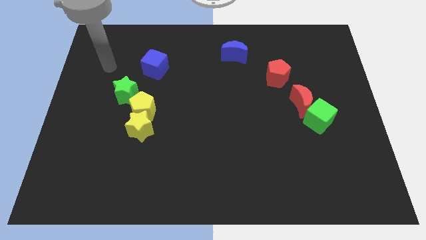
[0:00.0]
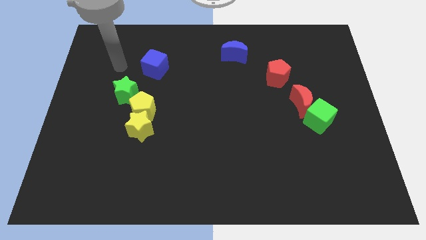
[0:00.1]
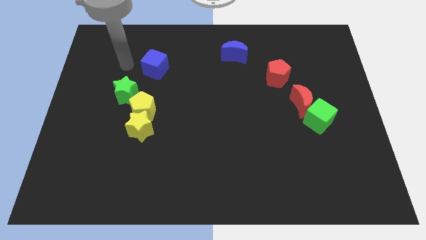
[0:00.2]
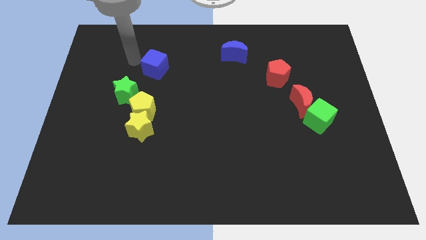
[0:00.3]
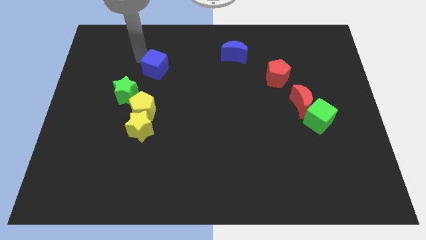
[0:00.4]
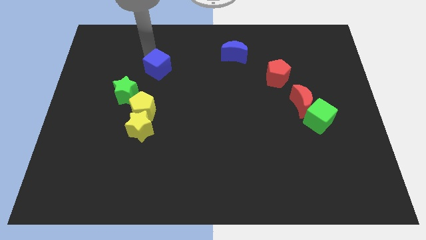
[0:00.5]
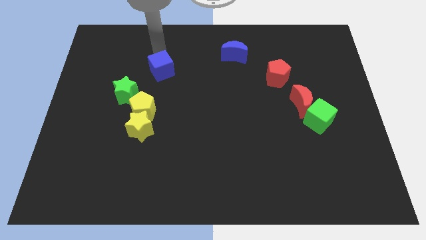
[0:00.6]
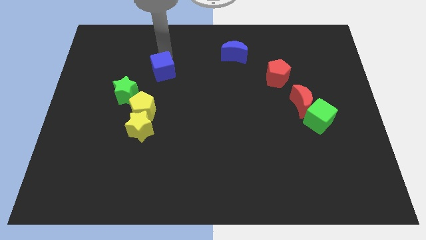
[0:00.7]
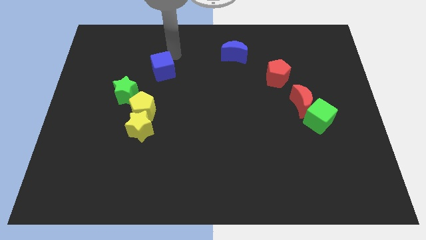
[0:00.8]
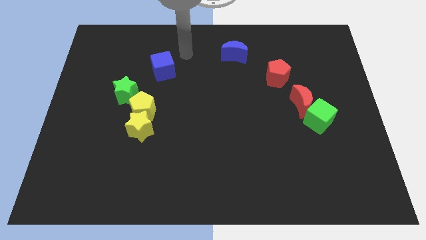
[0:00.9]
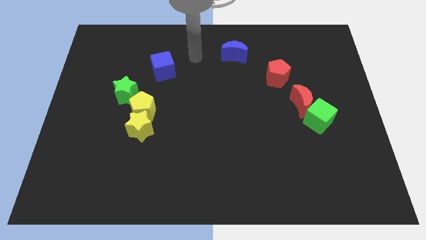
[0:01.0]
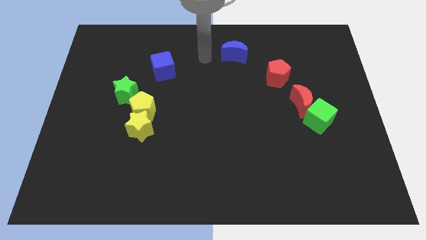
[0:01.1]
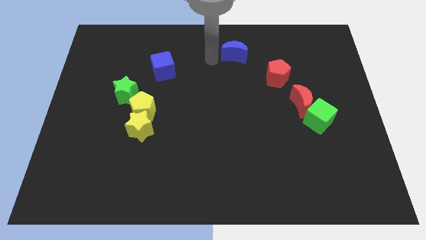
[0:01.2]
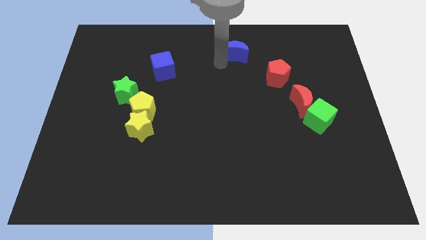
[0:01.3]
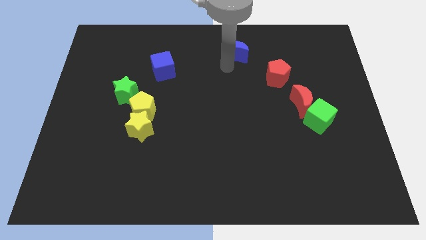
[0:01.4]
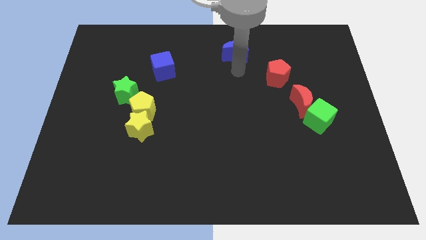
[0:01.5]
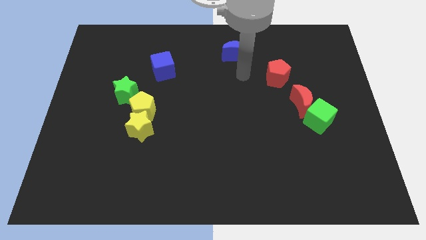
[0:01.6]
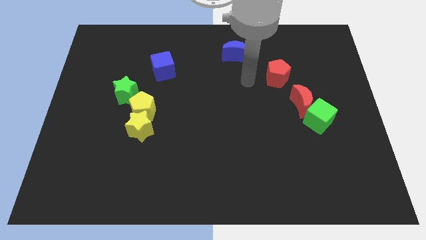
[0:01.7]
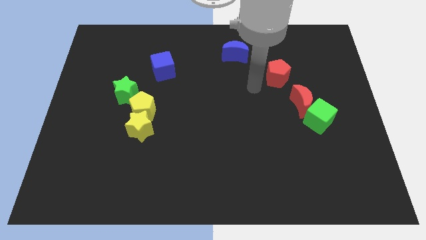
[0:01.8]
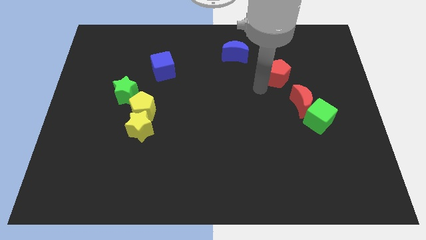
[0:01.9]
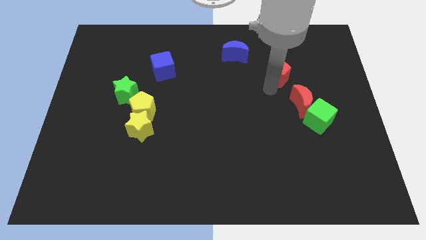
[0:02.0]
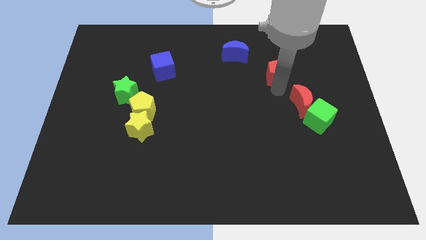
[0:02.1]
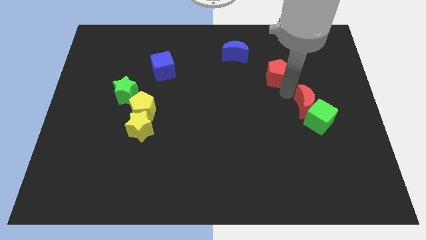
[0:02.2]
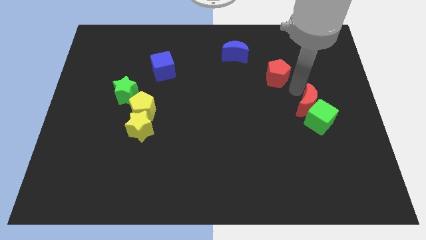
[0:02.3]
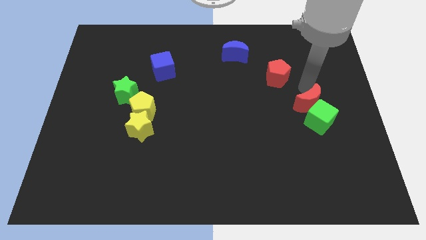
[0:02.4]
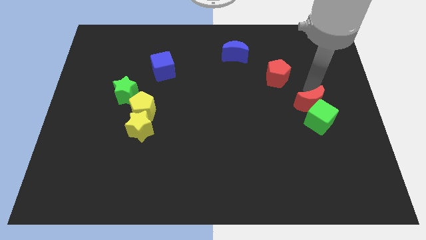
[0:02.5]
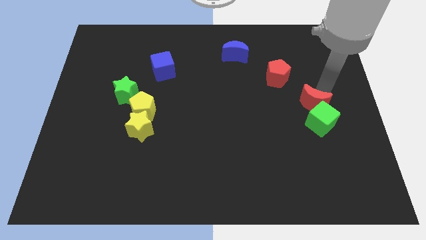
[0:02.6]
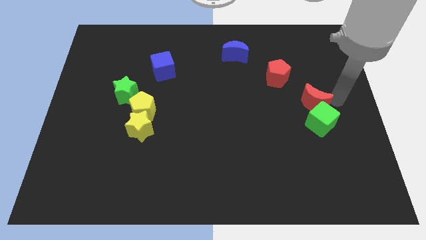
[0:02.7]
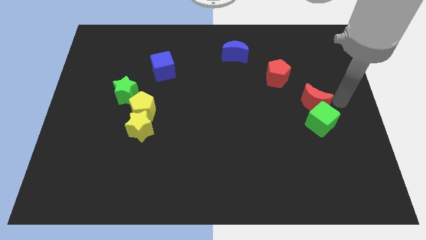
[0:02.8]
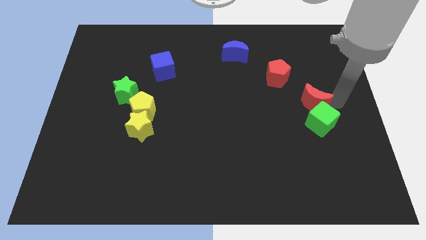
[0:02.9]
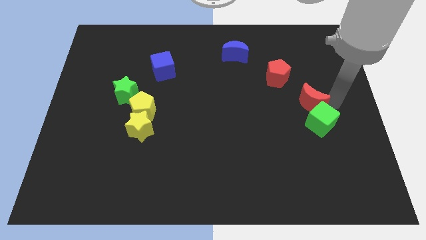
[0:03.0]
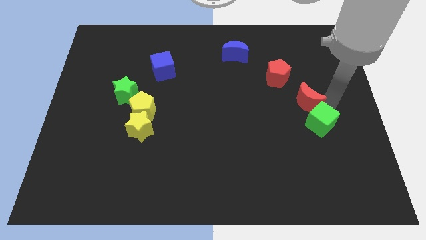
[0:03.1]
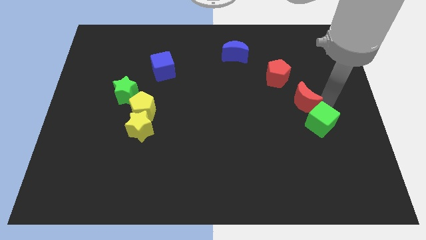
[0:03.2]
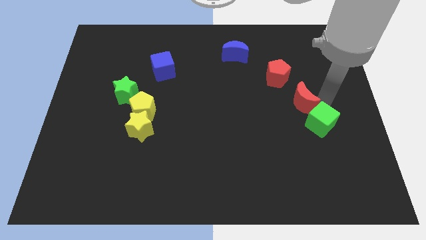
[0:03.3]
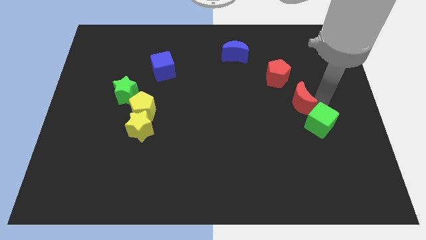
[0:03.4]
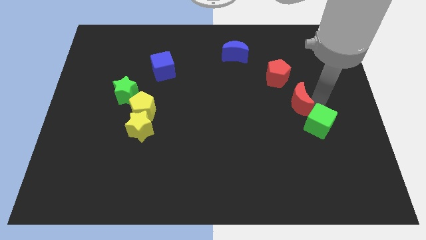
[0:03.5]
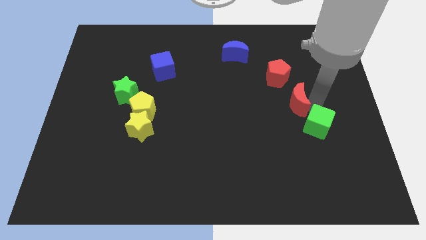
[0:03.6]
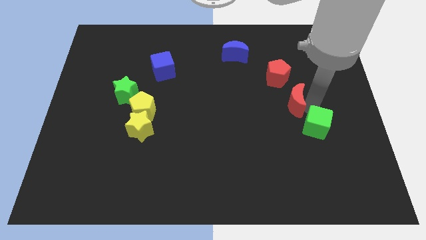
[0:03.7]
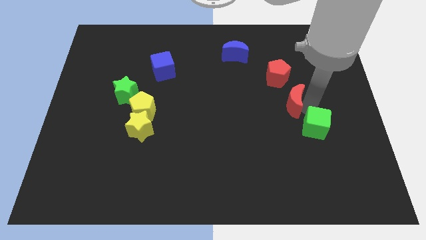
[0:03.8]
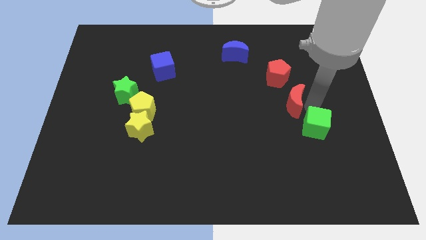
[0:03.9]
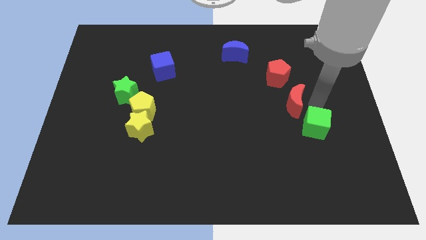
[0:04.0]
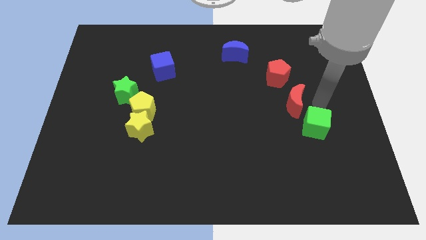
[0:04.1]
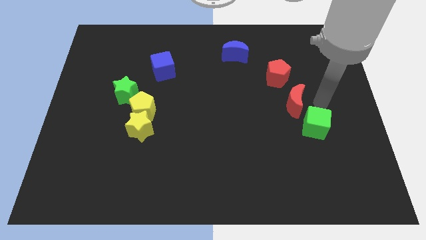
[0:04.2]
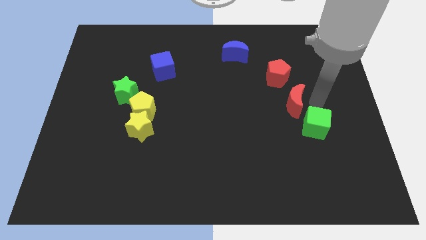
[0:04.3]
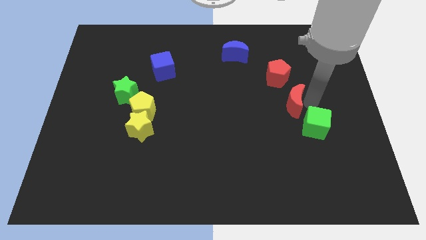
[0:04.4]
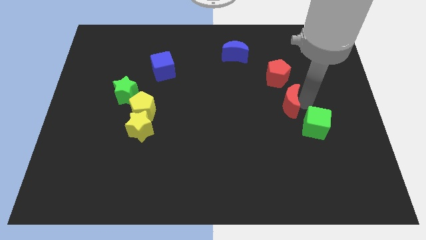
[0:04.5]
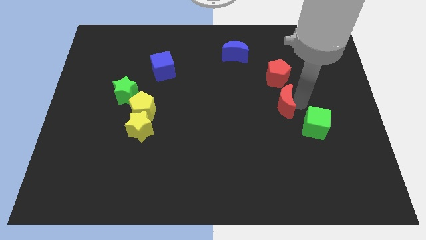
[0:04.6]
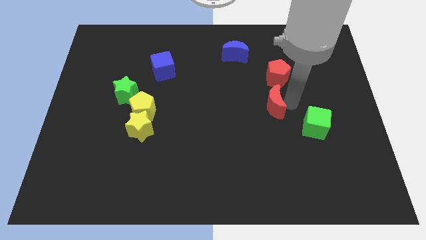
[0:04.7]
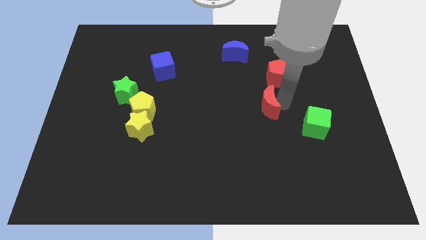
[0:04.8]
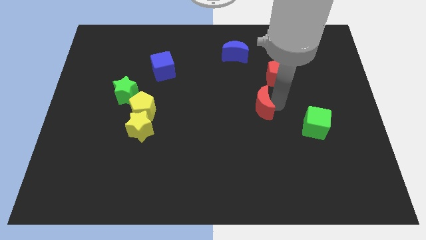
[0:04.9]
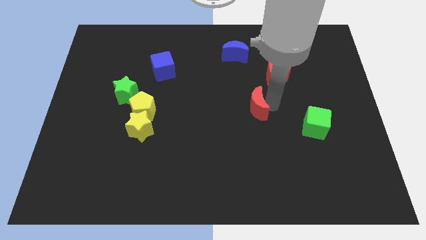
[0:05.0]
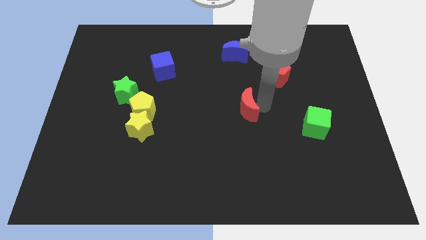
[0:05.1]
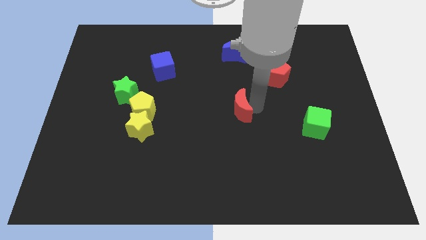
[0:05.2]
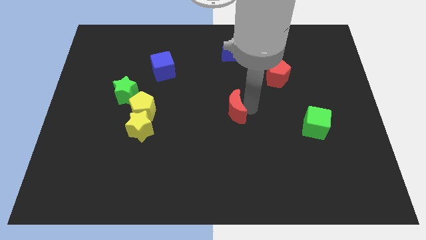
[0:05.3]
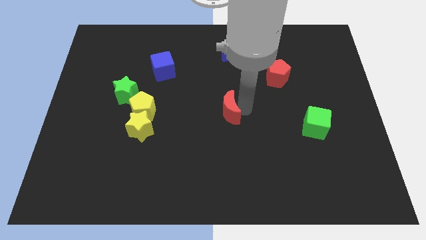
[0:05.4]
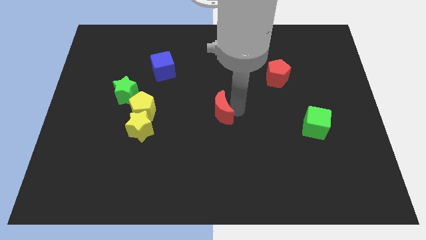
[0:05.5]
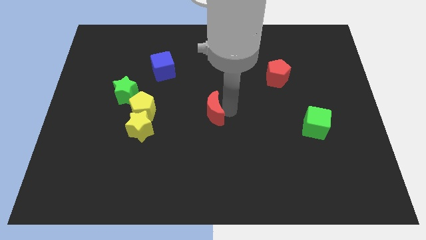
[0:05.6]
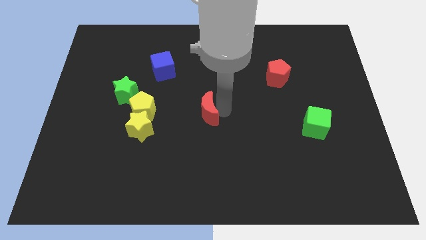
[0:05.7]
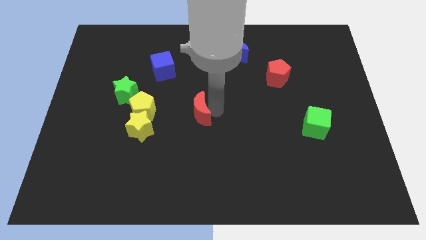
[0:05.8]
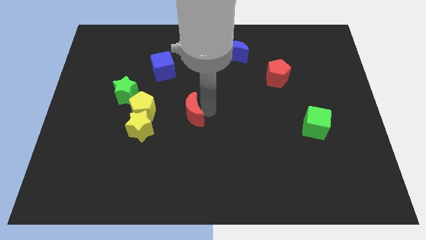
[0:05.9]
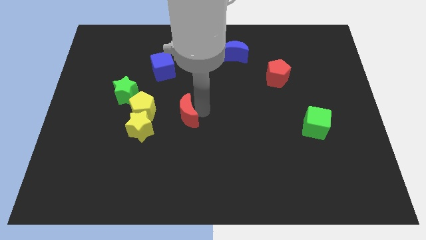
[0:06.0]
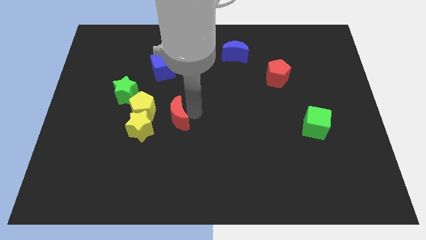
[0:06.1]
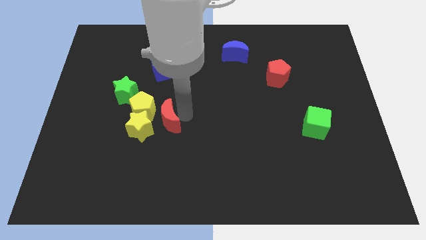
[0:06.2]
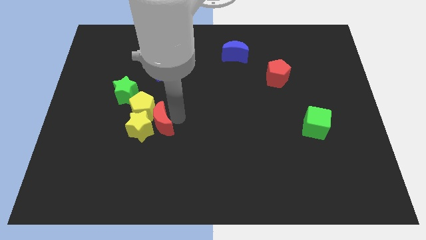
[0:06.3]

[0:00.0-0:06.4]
push the red moon to the yellow star

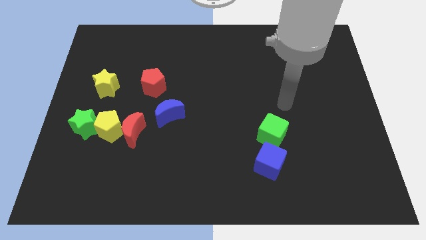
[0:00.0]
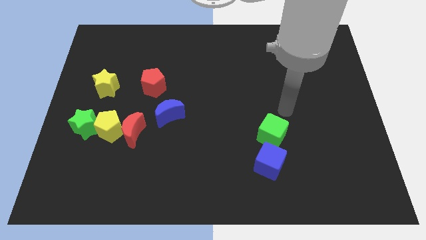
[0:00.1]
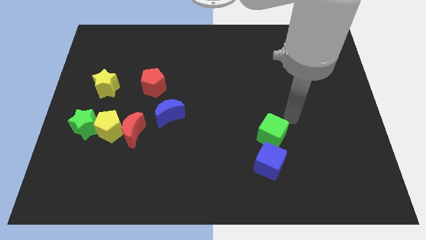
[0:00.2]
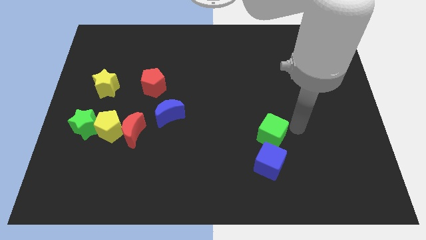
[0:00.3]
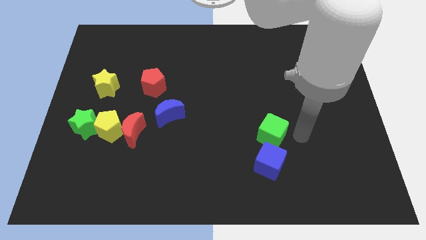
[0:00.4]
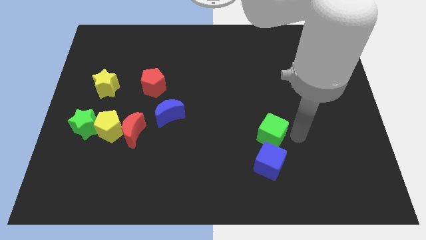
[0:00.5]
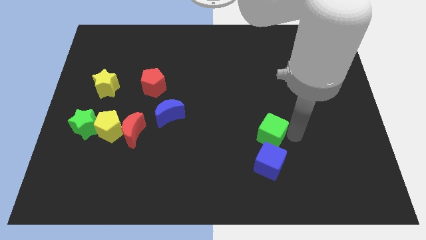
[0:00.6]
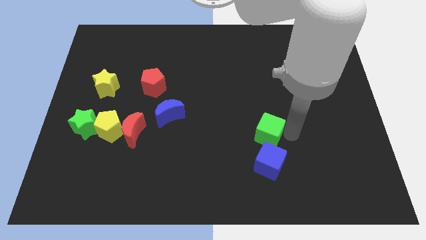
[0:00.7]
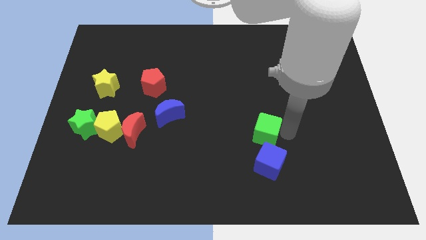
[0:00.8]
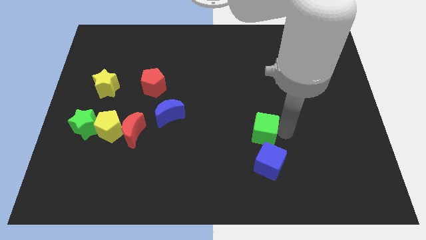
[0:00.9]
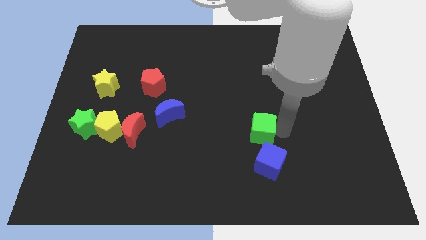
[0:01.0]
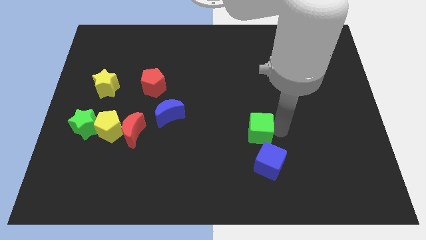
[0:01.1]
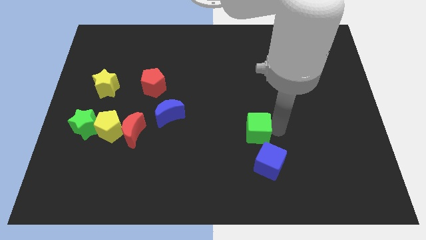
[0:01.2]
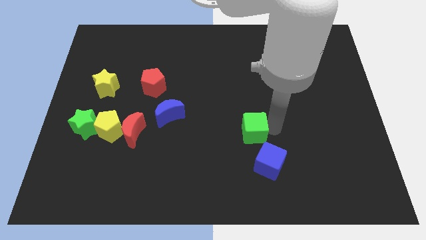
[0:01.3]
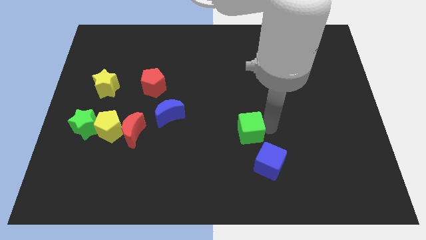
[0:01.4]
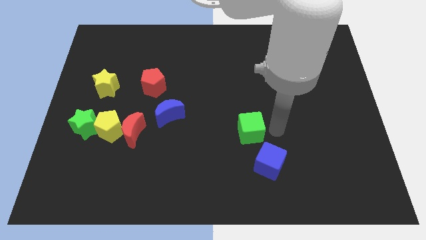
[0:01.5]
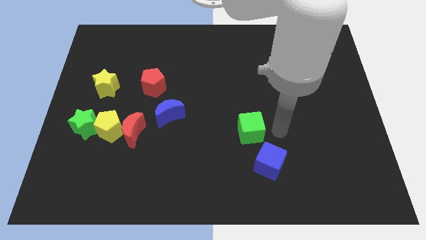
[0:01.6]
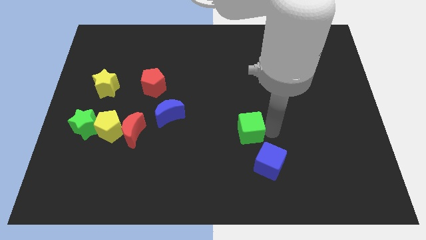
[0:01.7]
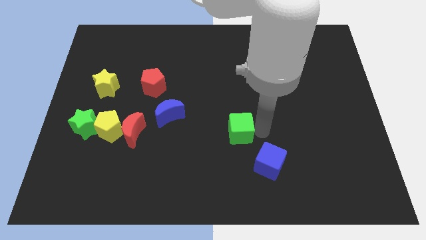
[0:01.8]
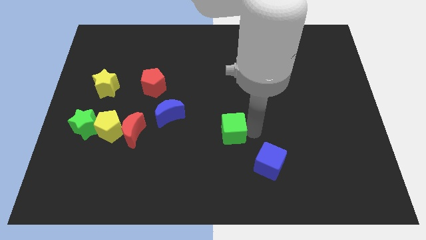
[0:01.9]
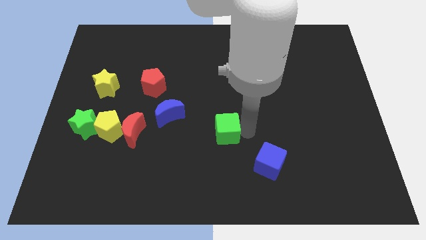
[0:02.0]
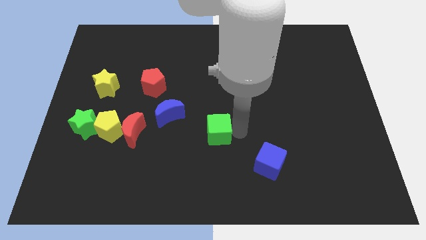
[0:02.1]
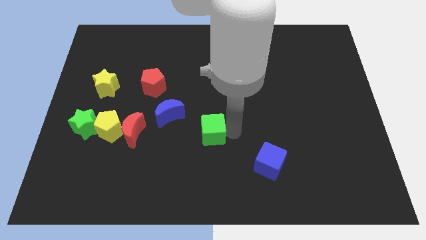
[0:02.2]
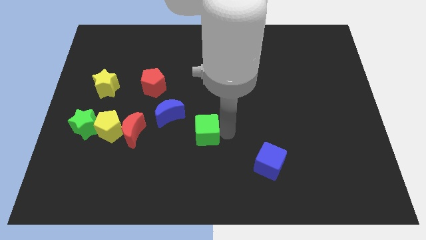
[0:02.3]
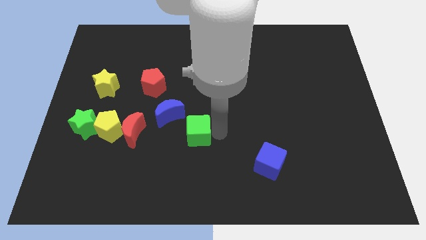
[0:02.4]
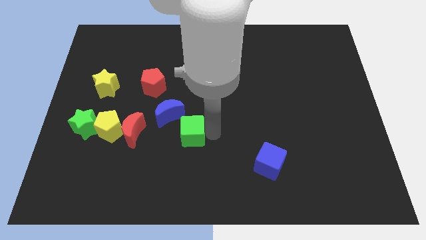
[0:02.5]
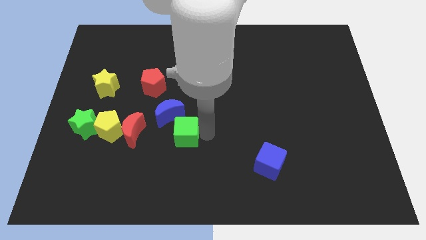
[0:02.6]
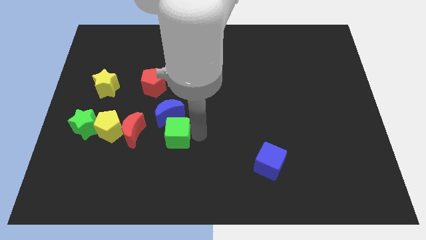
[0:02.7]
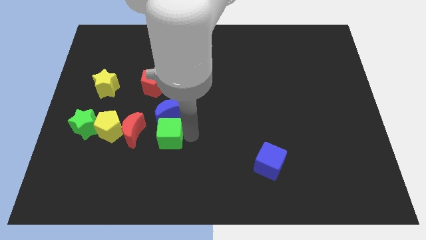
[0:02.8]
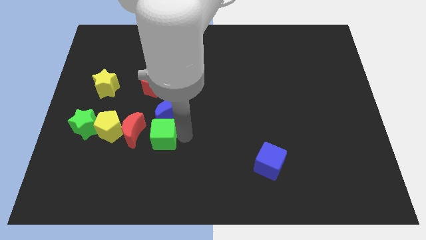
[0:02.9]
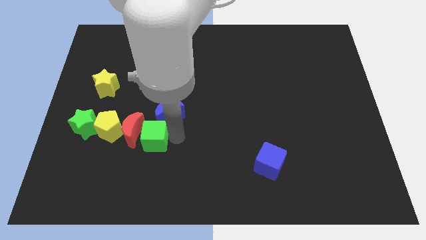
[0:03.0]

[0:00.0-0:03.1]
move the green cube to the red moon
